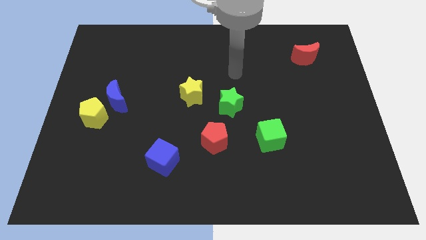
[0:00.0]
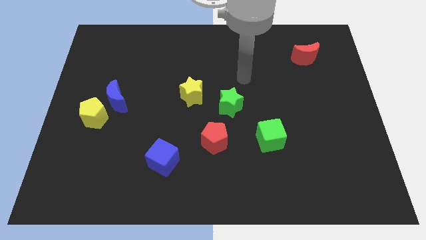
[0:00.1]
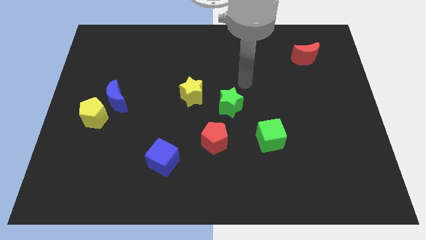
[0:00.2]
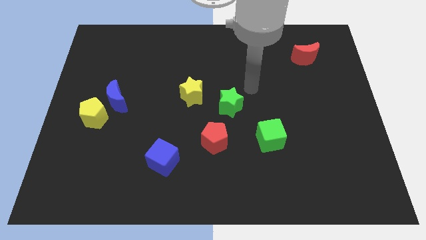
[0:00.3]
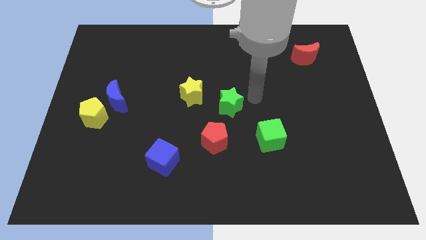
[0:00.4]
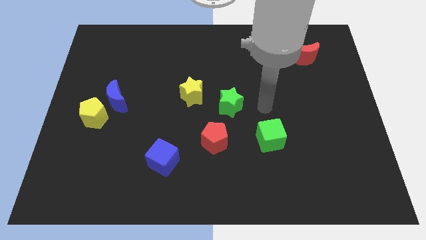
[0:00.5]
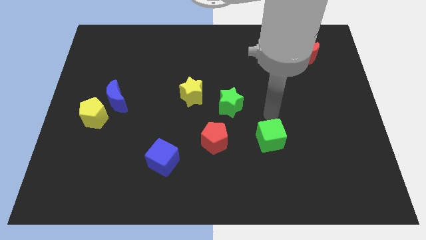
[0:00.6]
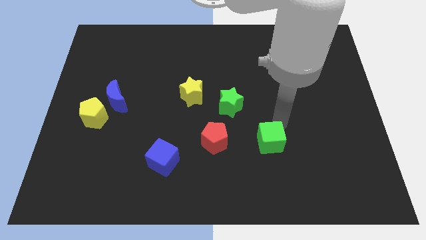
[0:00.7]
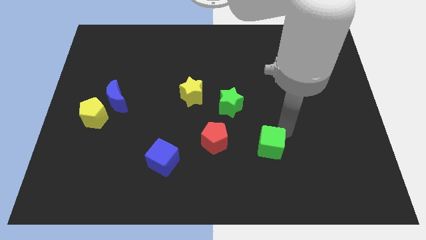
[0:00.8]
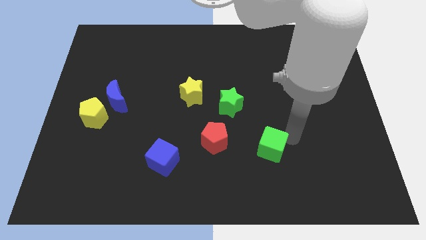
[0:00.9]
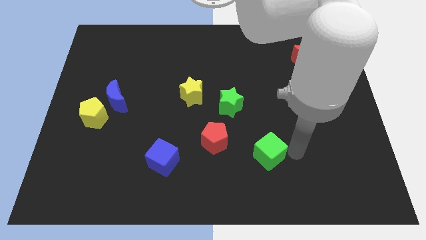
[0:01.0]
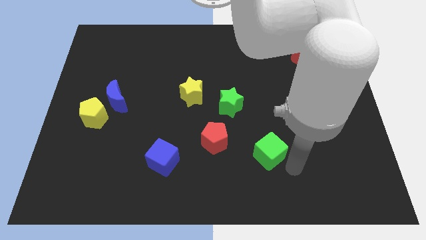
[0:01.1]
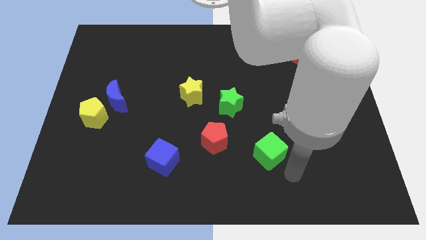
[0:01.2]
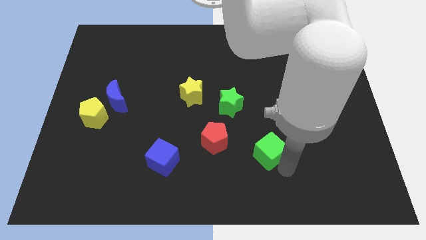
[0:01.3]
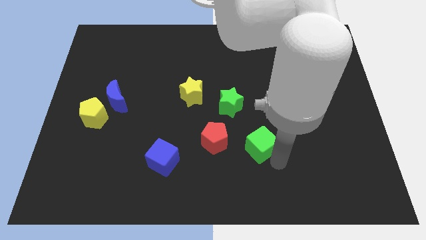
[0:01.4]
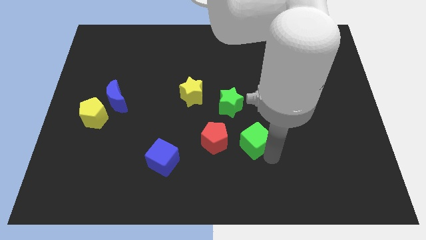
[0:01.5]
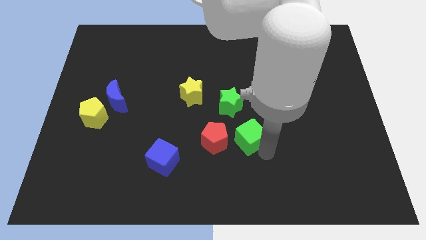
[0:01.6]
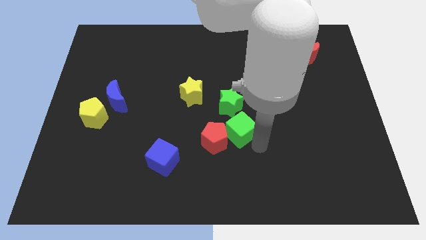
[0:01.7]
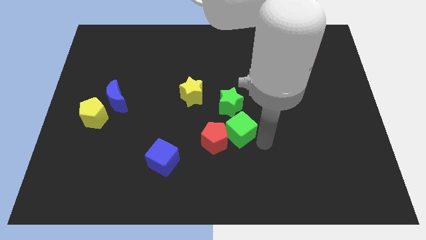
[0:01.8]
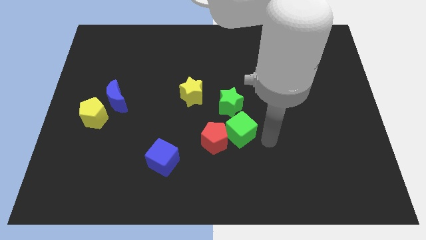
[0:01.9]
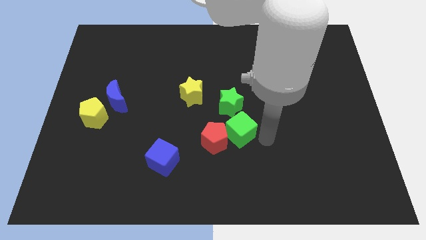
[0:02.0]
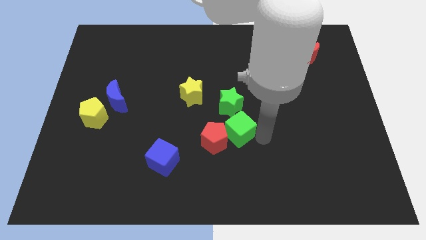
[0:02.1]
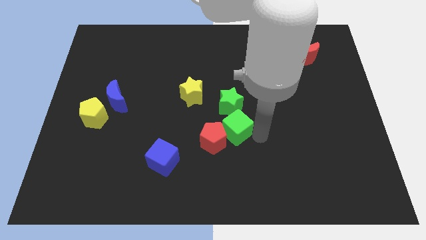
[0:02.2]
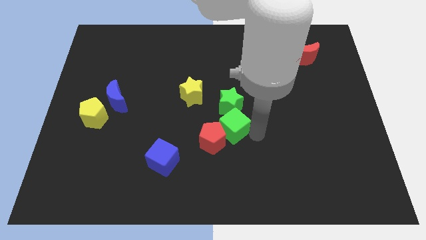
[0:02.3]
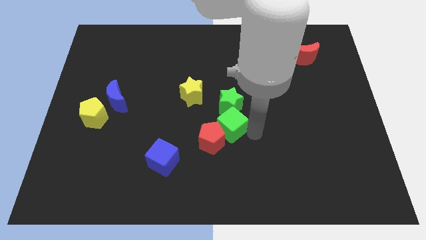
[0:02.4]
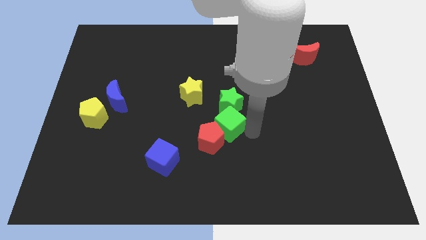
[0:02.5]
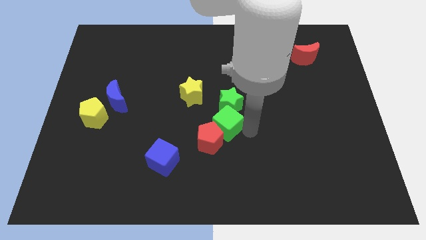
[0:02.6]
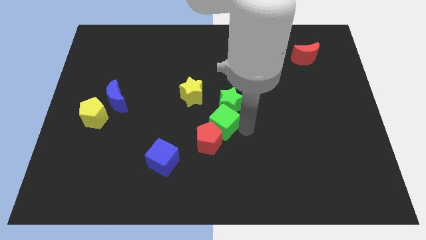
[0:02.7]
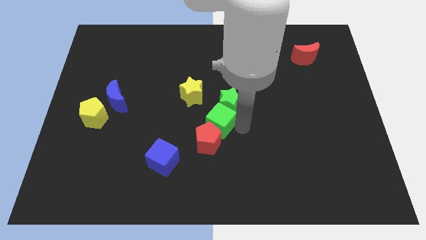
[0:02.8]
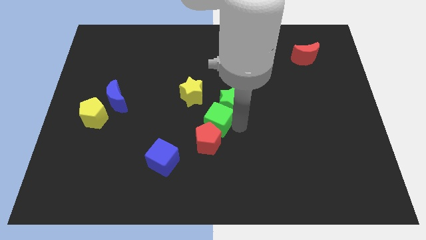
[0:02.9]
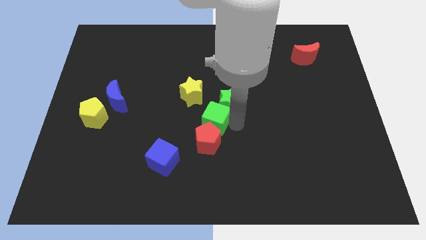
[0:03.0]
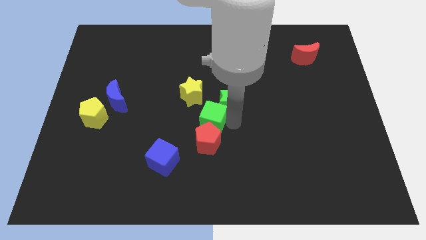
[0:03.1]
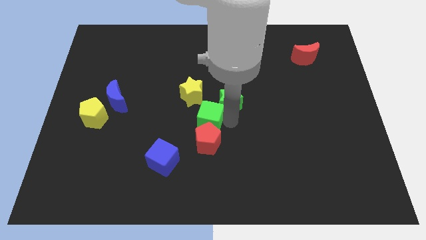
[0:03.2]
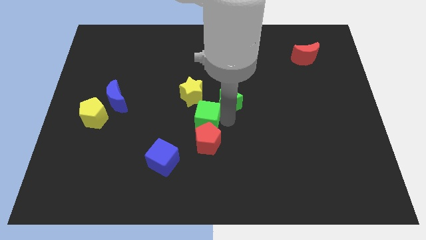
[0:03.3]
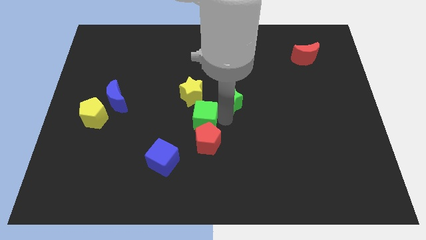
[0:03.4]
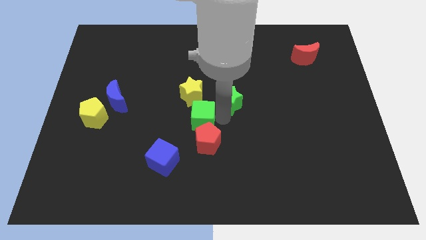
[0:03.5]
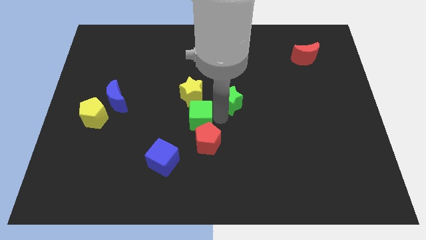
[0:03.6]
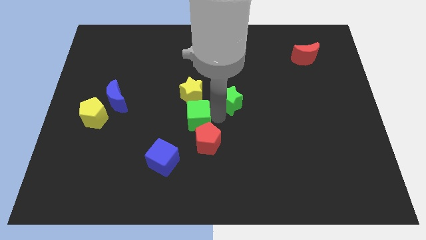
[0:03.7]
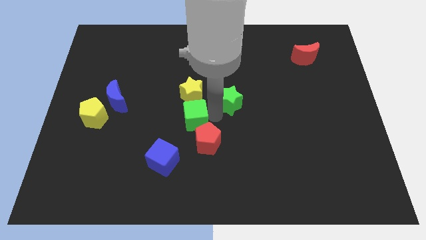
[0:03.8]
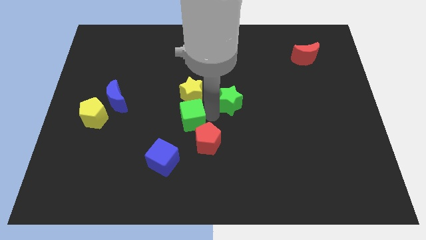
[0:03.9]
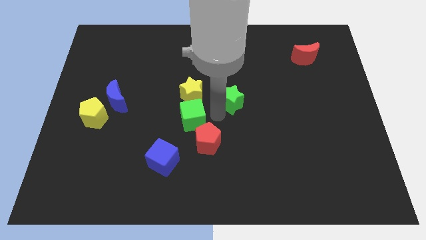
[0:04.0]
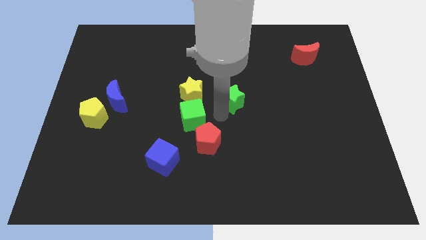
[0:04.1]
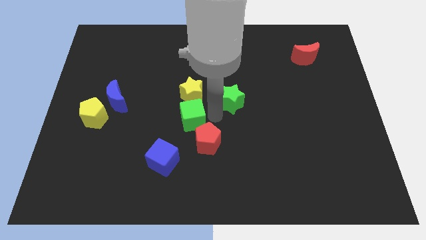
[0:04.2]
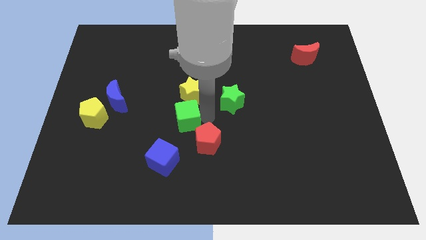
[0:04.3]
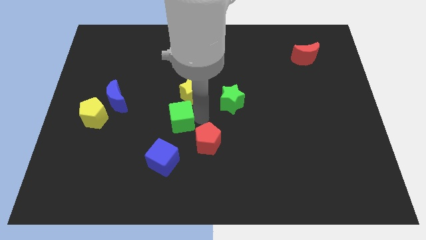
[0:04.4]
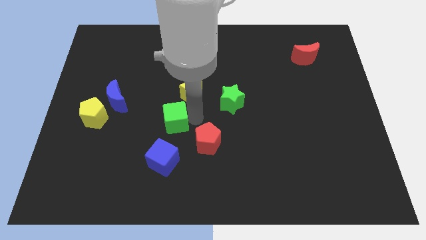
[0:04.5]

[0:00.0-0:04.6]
move the green cube left

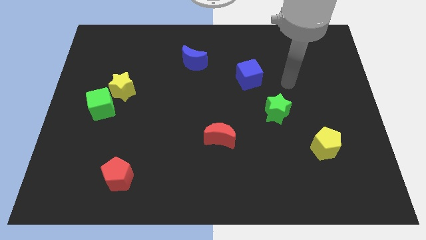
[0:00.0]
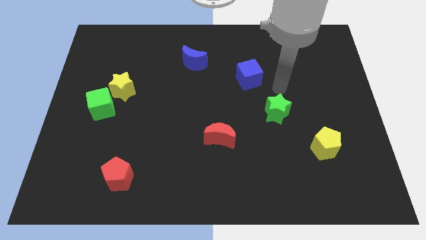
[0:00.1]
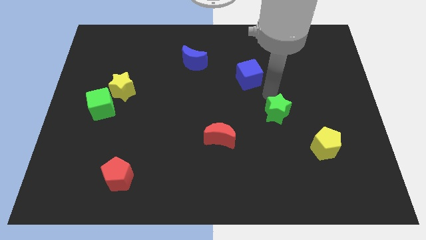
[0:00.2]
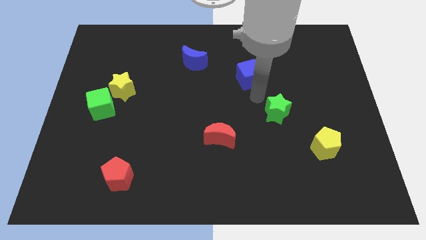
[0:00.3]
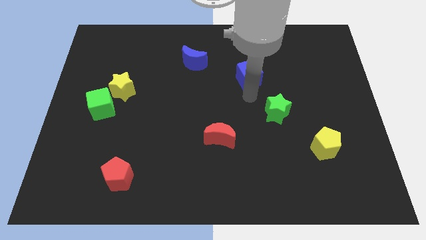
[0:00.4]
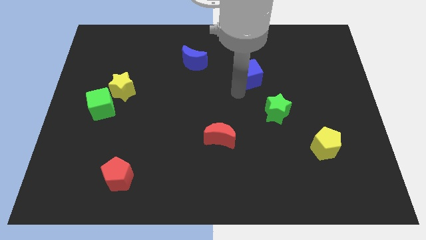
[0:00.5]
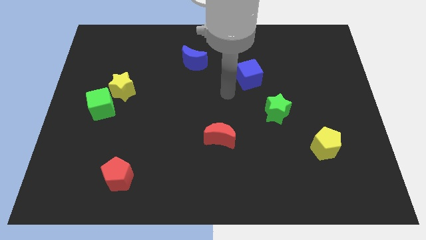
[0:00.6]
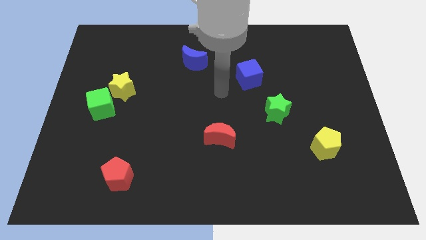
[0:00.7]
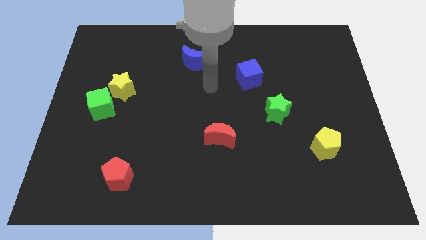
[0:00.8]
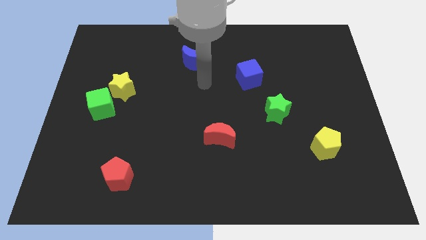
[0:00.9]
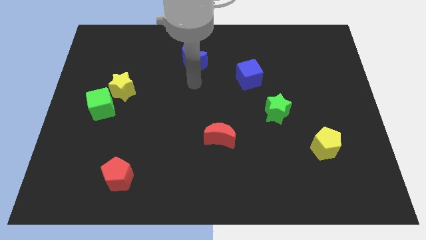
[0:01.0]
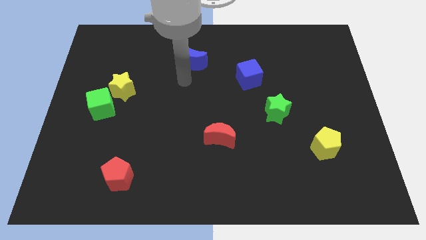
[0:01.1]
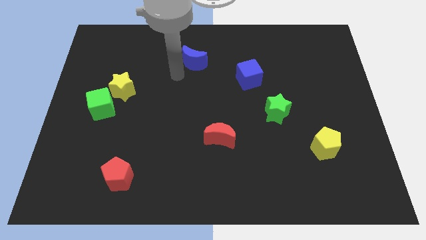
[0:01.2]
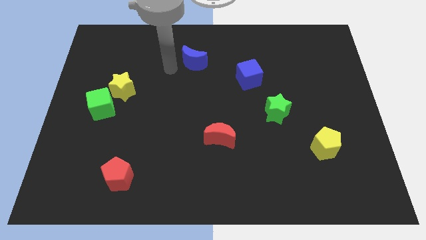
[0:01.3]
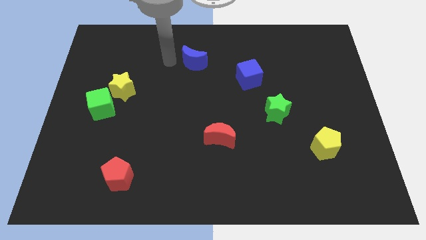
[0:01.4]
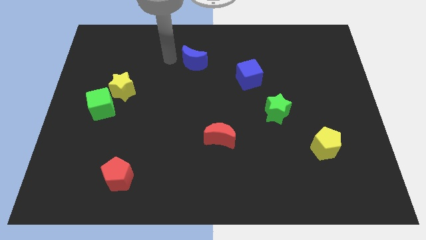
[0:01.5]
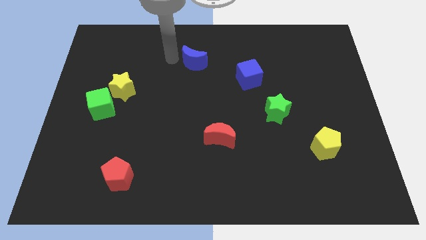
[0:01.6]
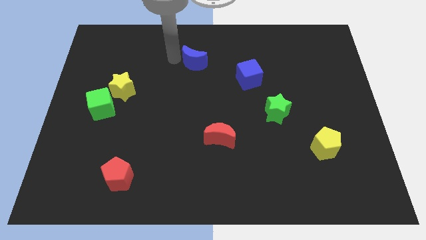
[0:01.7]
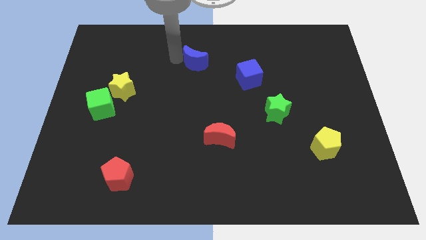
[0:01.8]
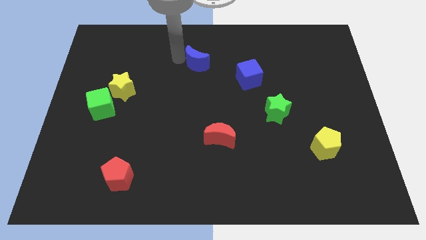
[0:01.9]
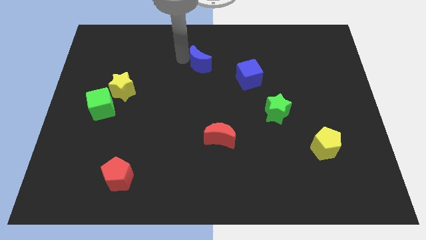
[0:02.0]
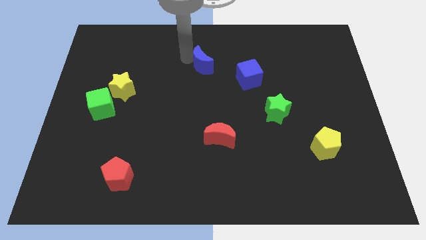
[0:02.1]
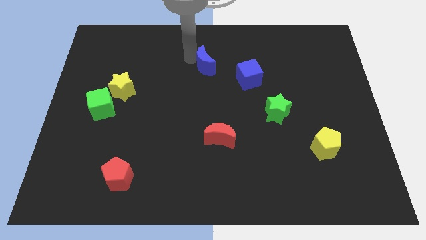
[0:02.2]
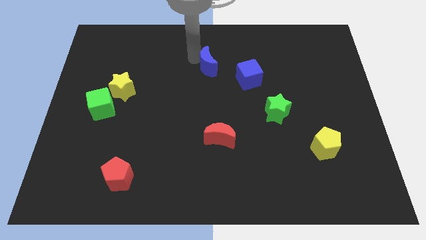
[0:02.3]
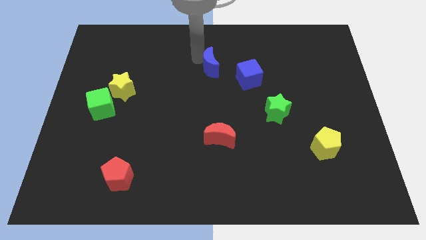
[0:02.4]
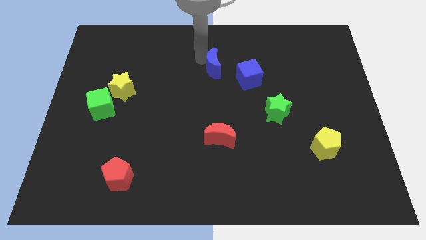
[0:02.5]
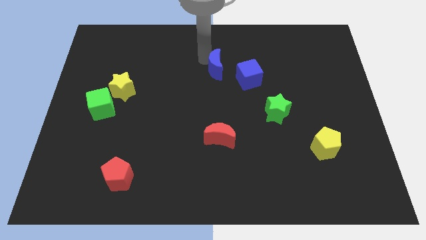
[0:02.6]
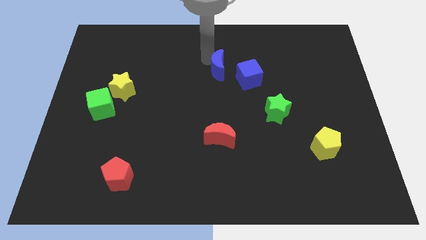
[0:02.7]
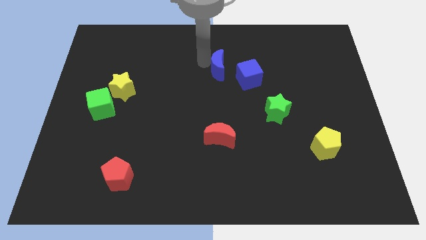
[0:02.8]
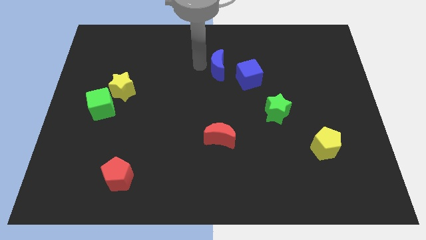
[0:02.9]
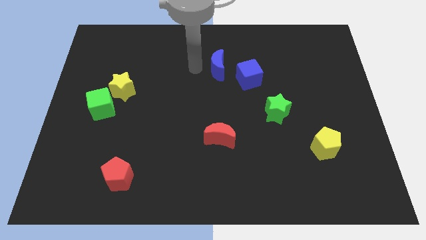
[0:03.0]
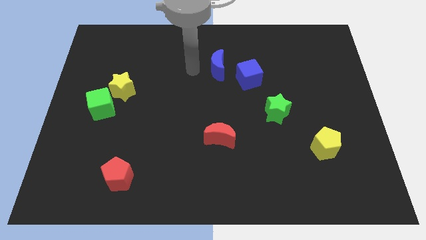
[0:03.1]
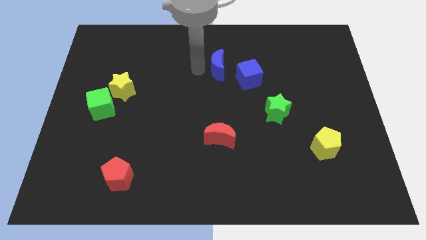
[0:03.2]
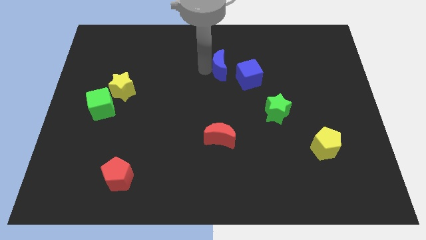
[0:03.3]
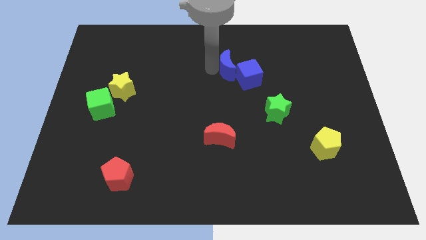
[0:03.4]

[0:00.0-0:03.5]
slightly slide the blue moon to the right
